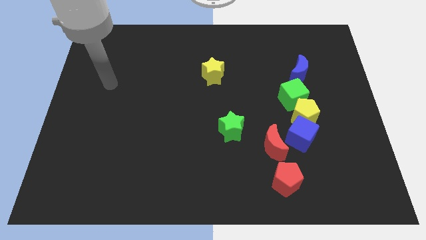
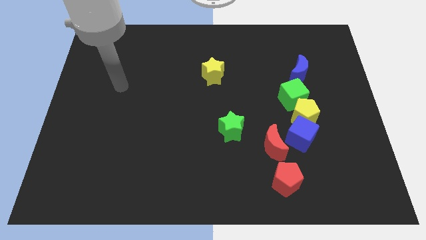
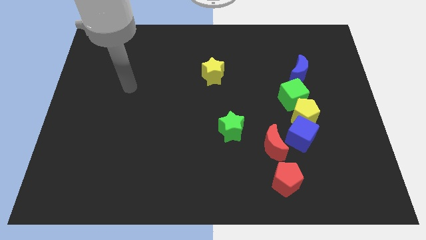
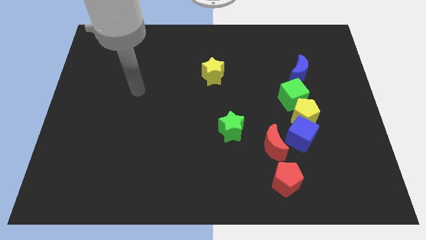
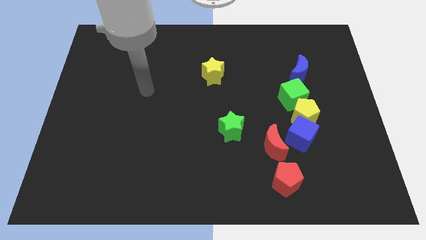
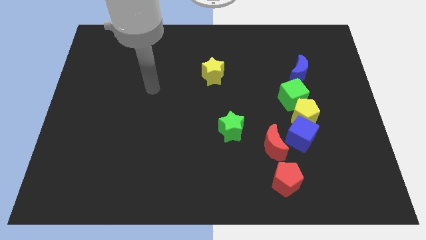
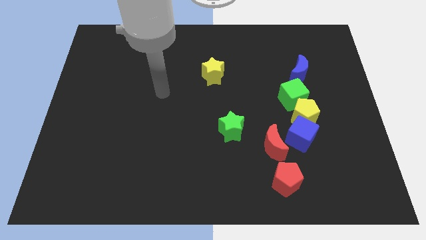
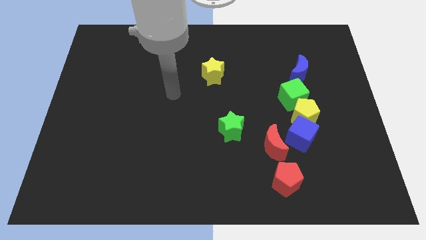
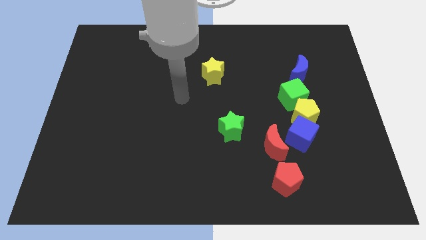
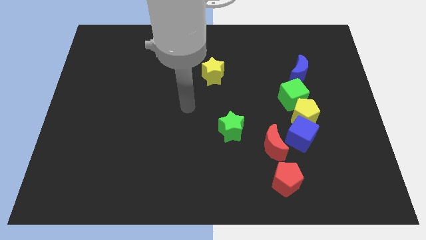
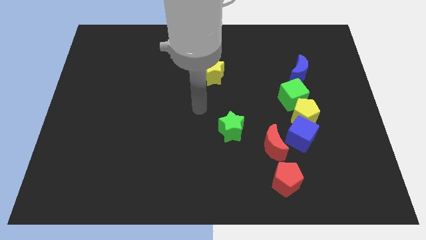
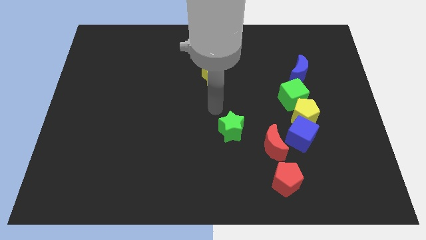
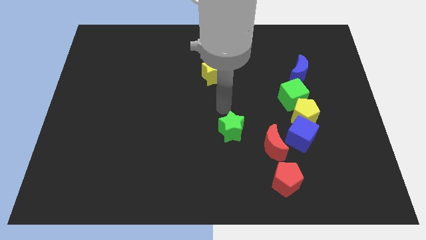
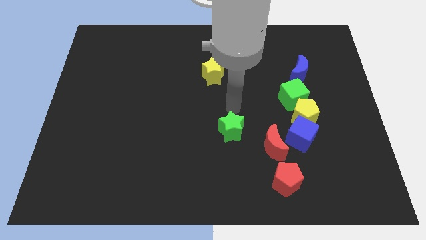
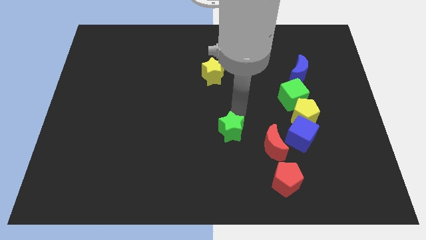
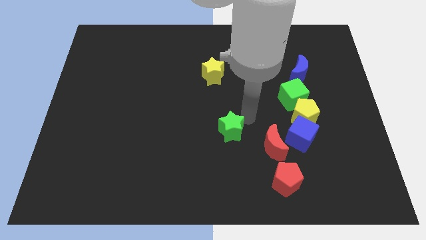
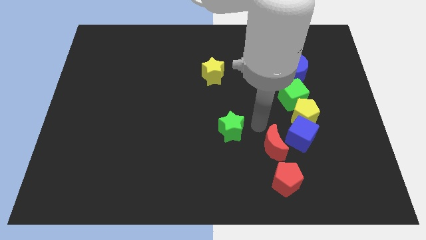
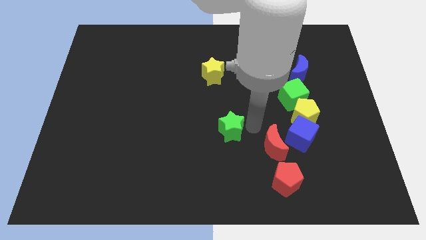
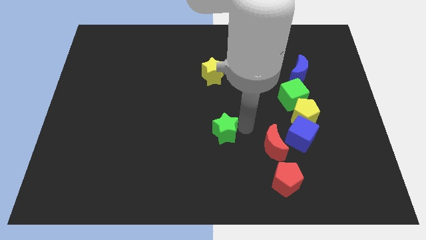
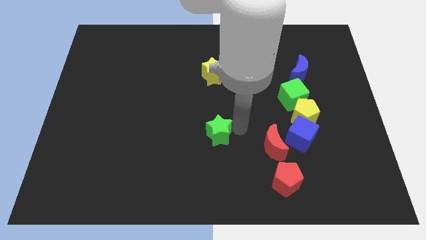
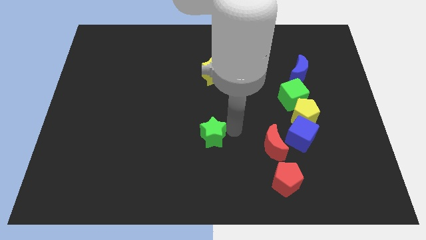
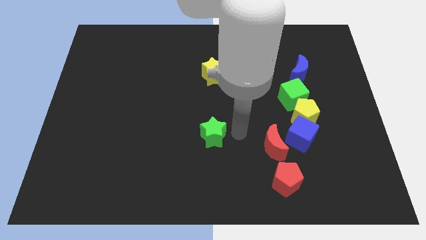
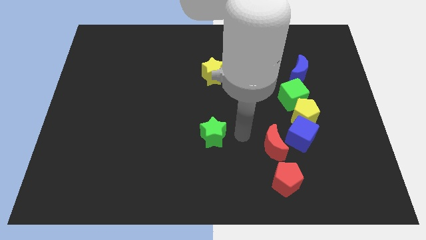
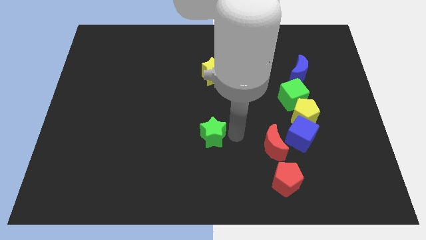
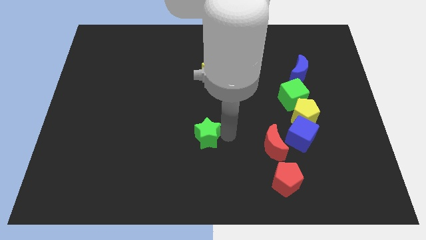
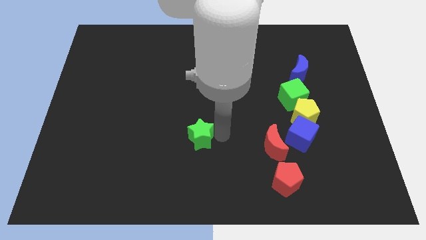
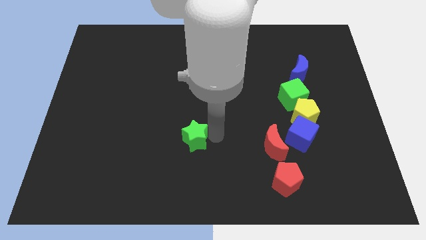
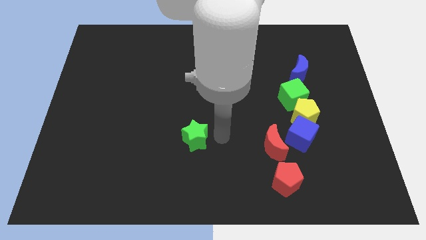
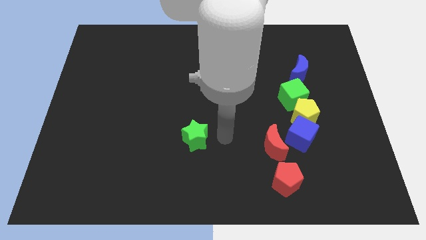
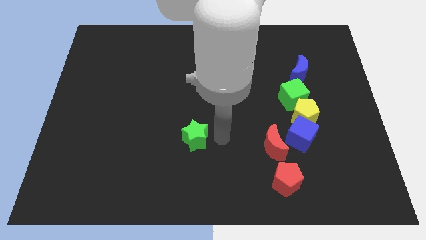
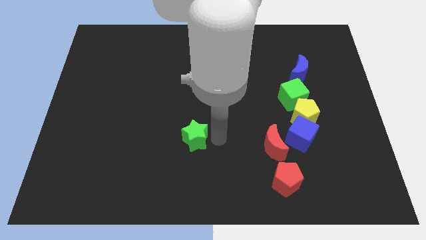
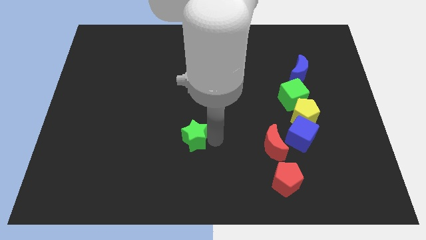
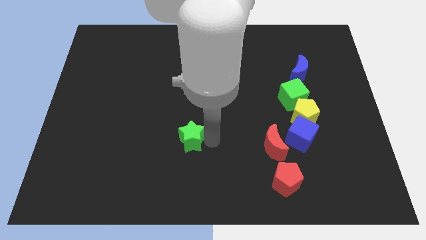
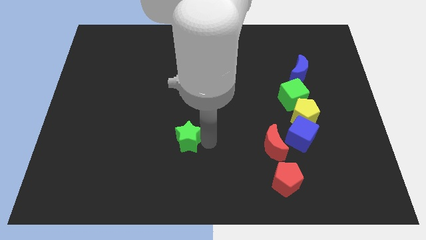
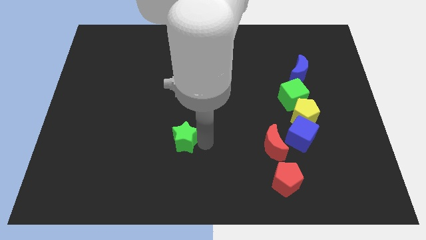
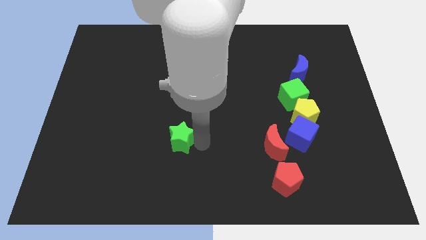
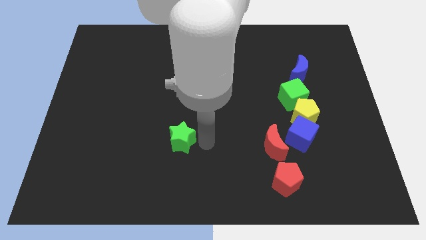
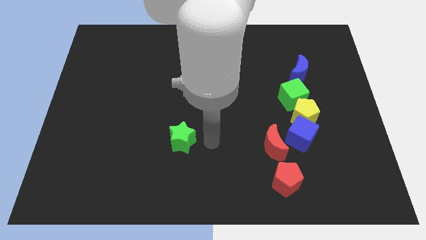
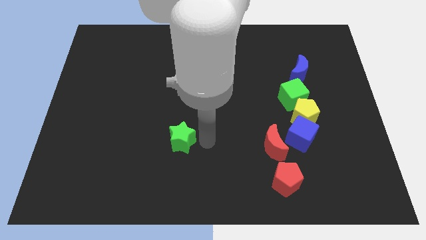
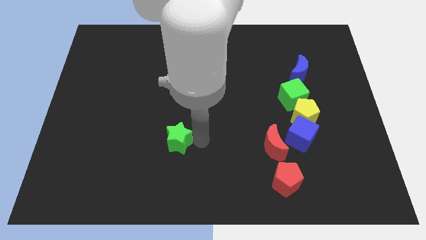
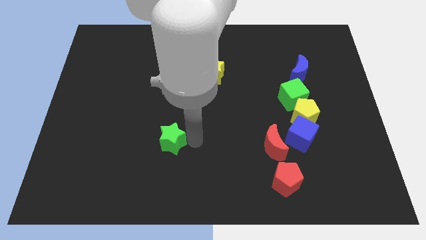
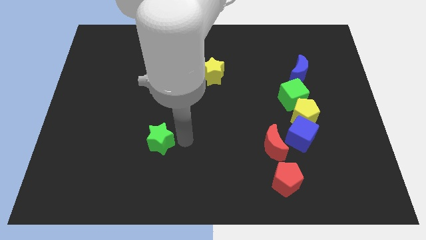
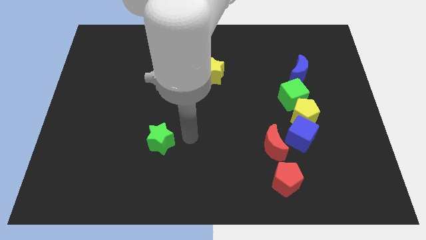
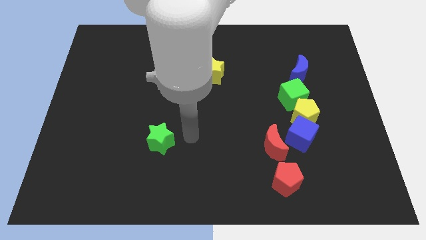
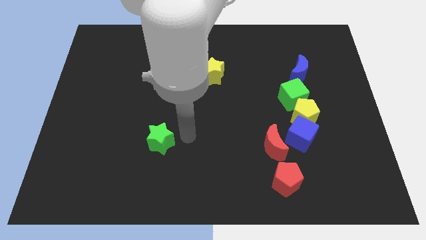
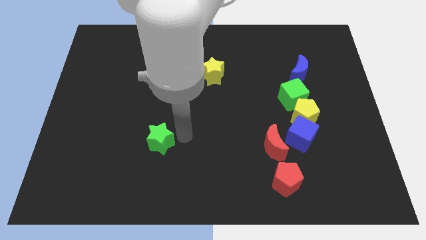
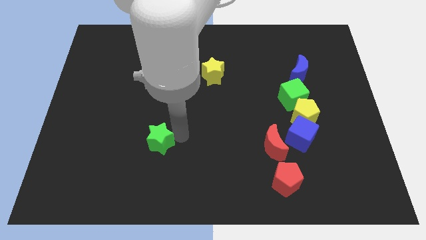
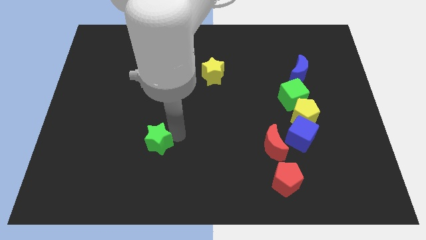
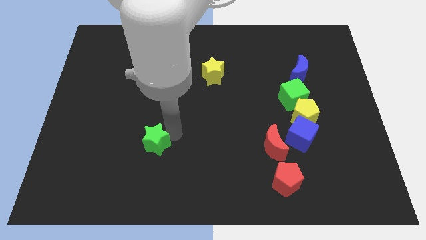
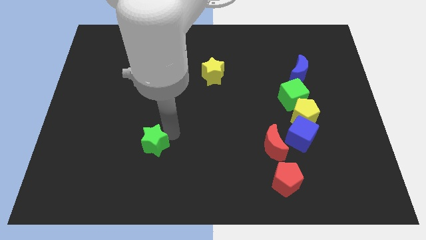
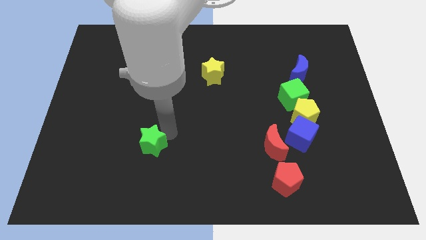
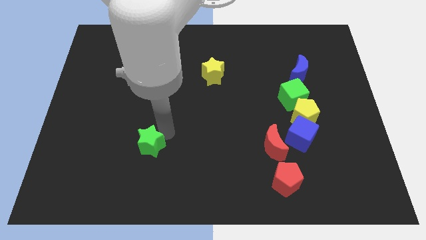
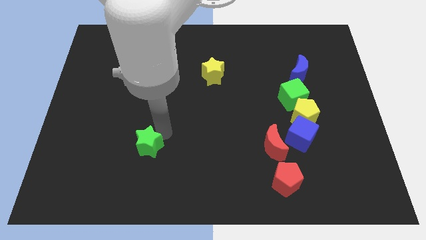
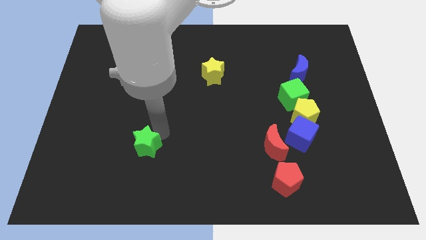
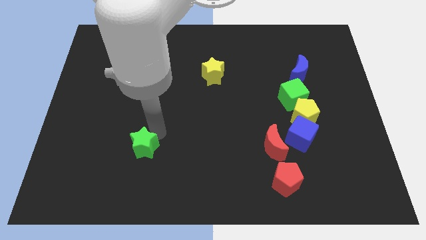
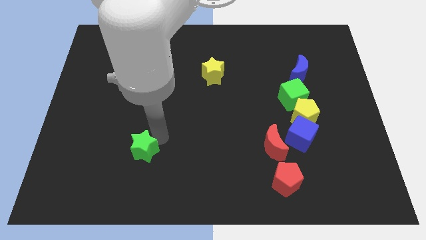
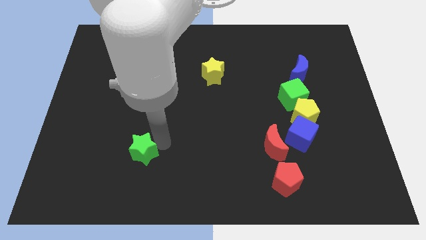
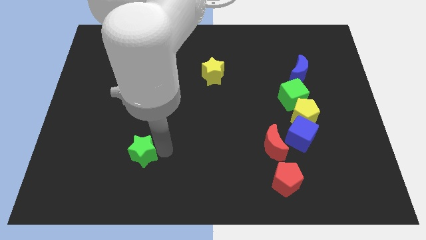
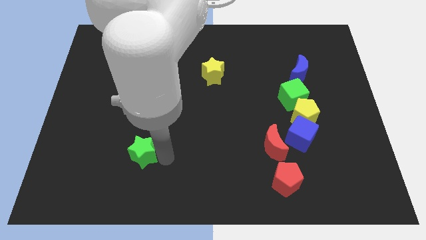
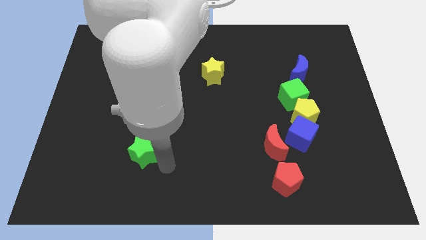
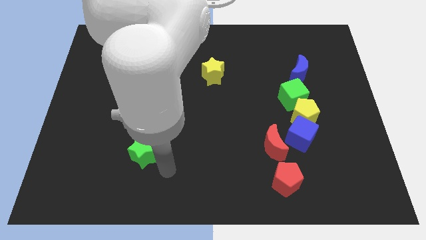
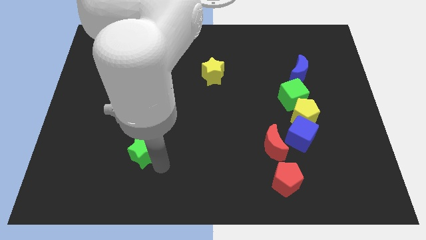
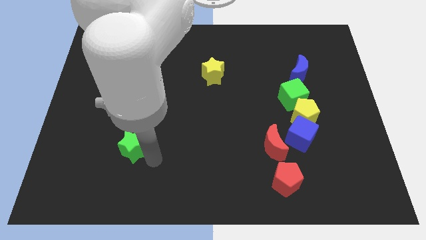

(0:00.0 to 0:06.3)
slide the green star left

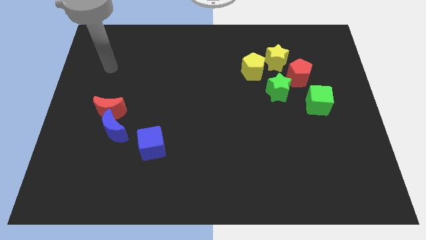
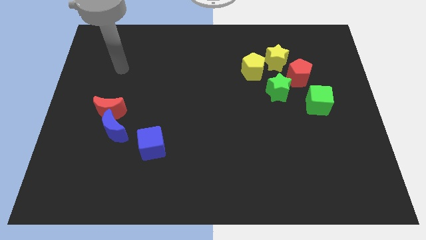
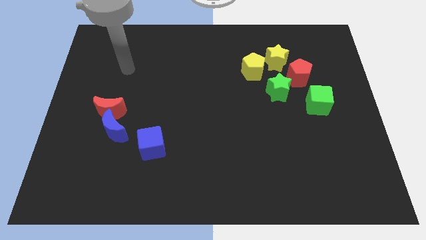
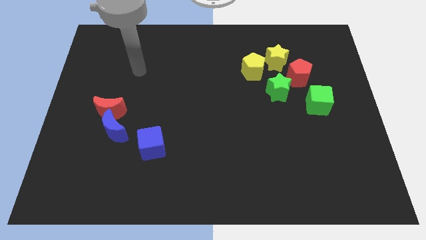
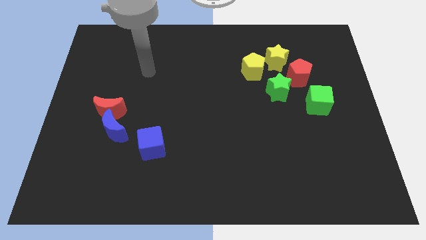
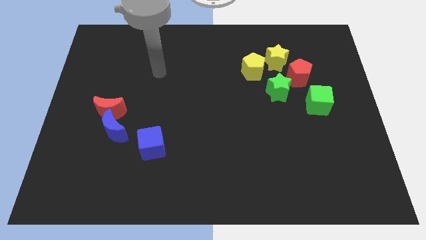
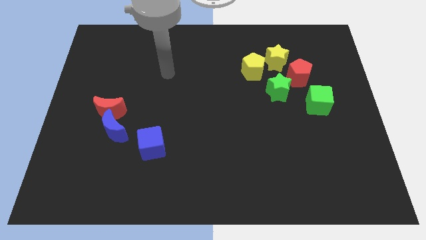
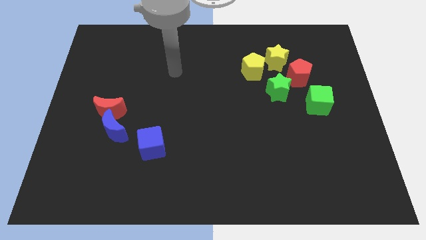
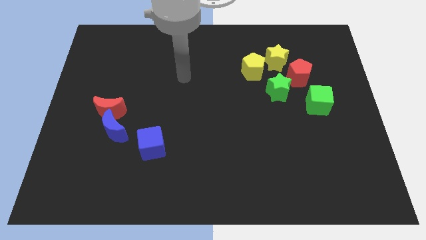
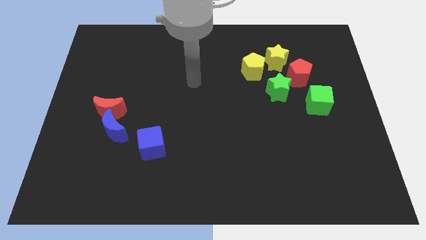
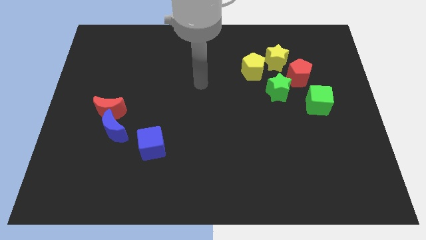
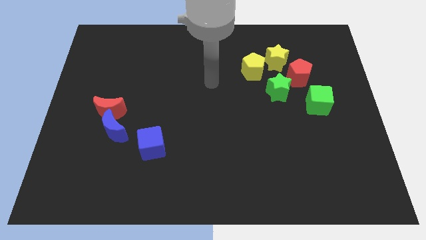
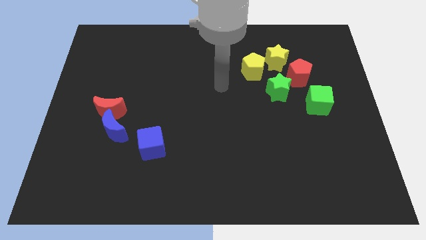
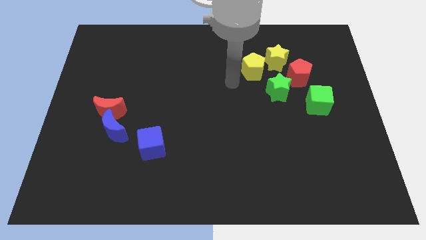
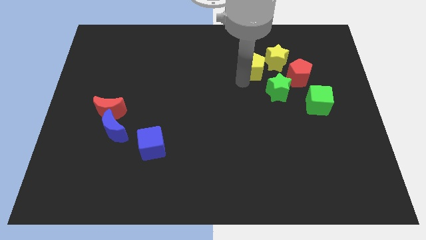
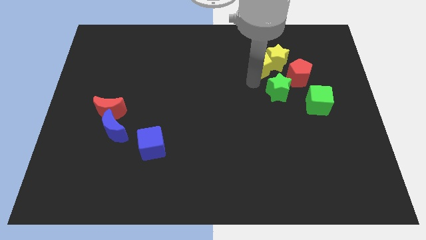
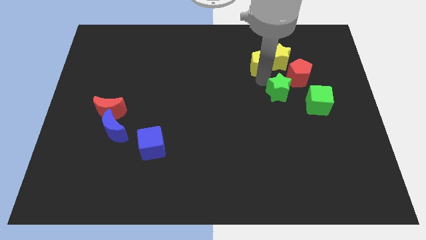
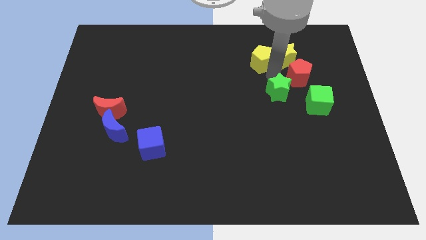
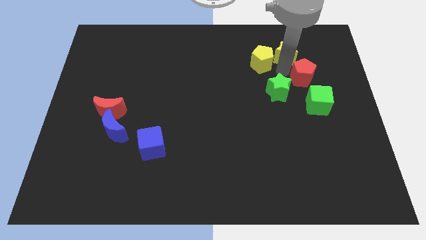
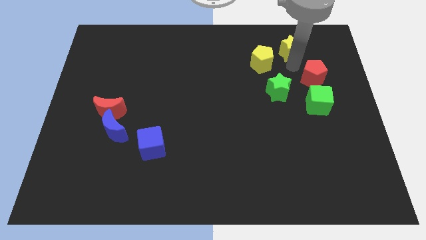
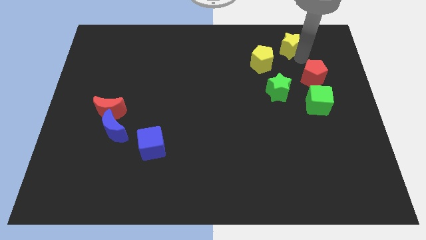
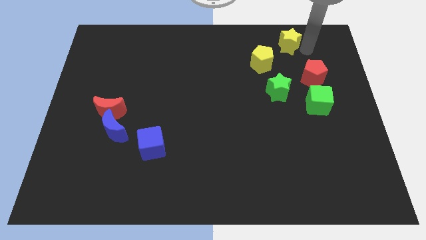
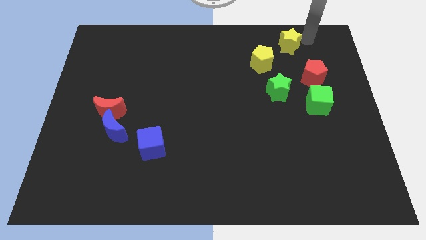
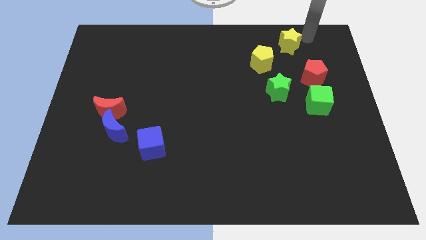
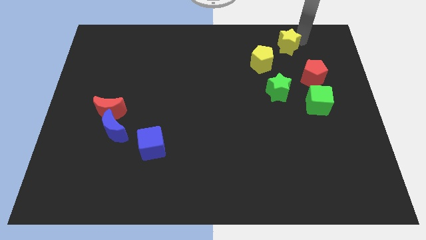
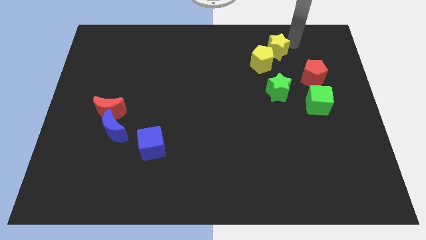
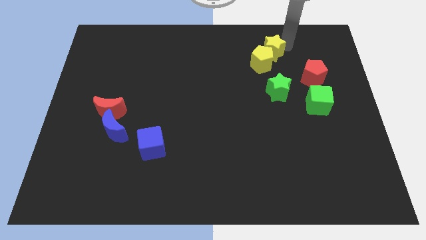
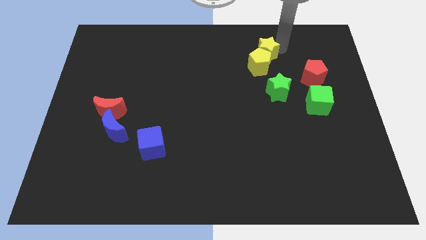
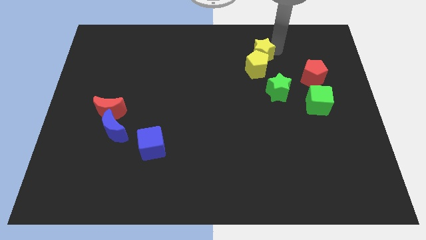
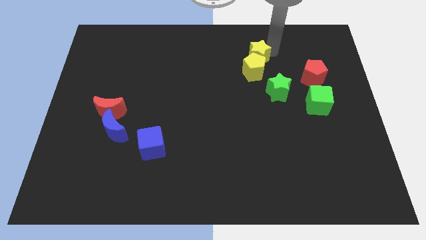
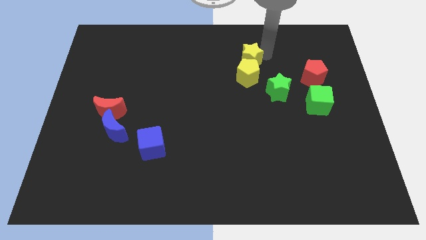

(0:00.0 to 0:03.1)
move the yellow star left a bit
